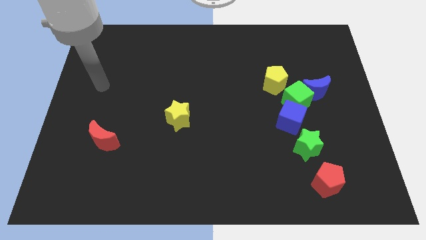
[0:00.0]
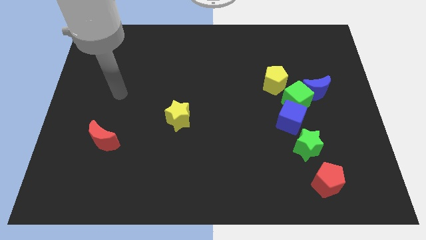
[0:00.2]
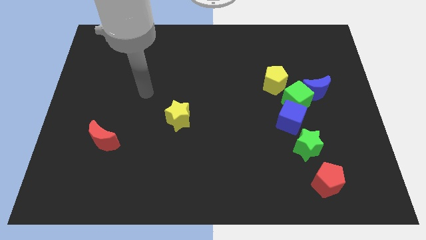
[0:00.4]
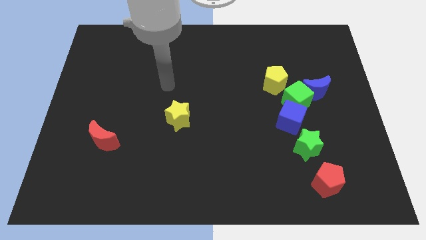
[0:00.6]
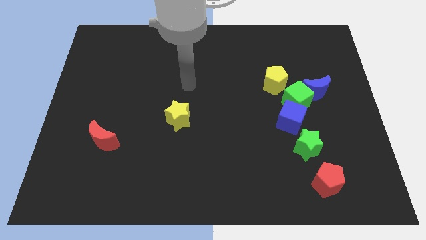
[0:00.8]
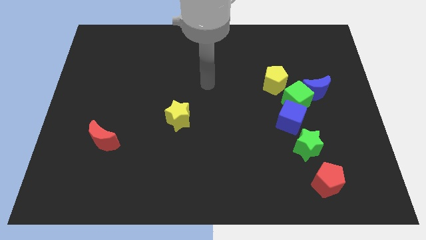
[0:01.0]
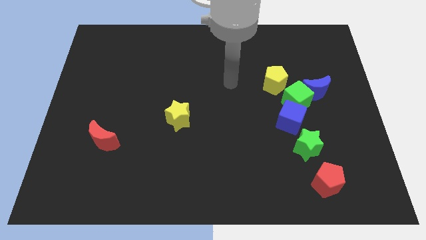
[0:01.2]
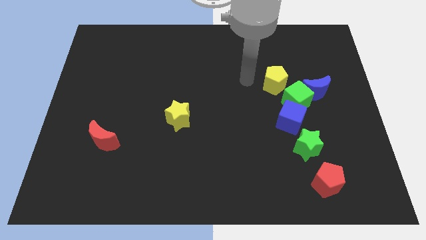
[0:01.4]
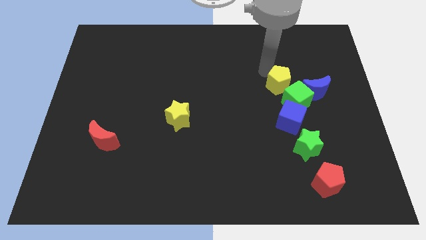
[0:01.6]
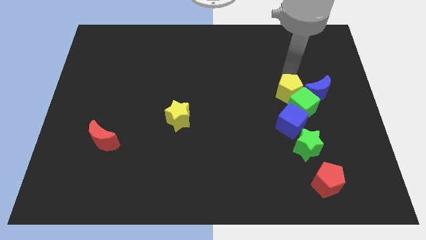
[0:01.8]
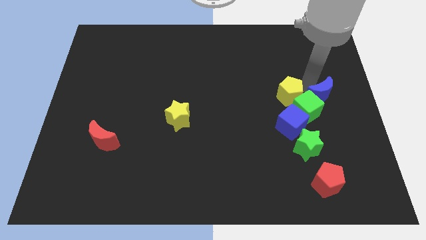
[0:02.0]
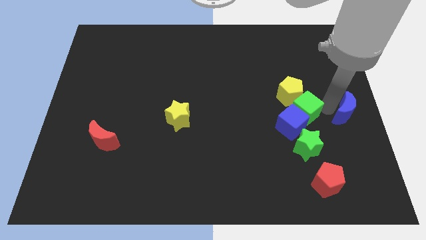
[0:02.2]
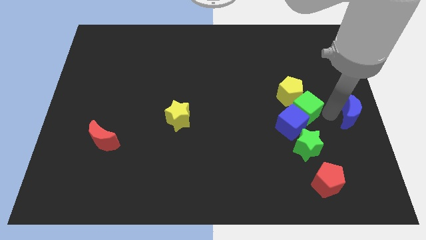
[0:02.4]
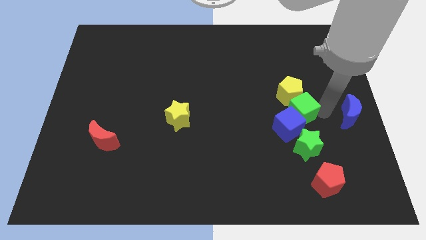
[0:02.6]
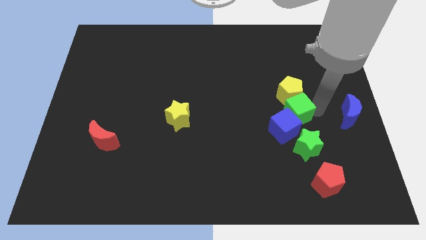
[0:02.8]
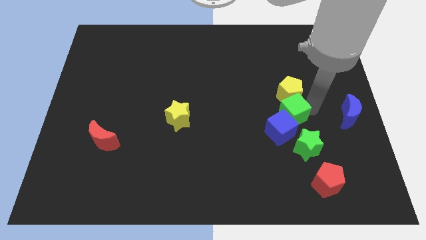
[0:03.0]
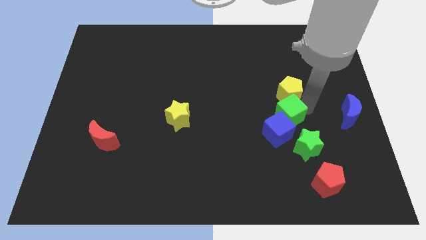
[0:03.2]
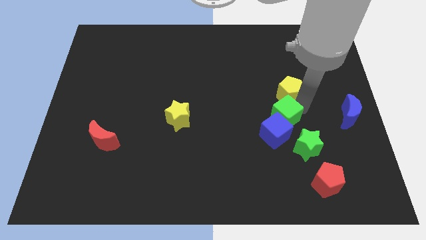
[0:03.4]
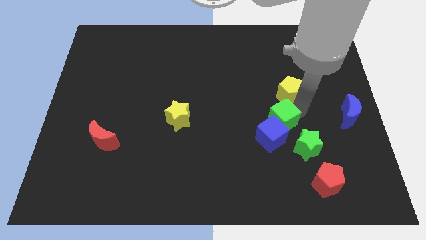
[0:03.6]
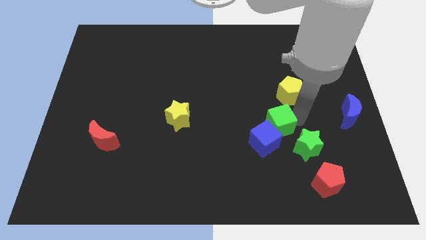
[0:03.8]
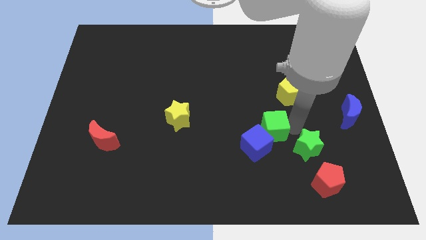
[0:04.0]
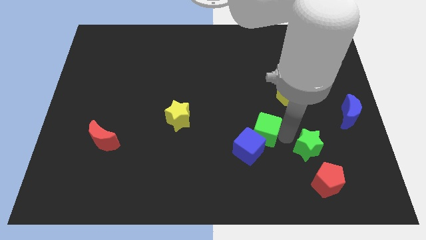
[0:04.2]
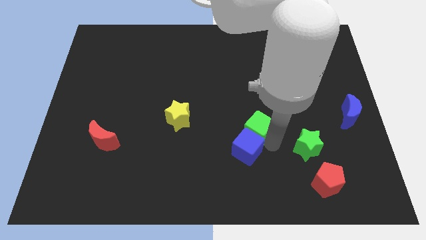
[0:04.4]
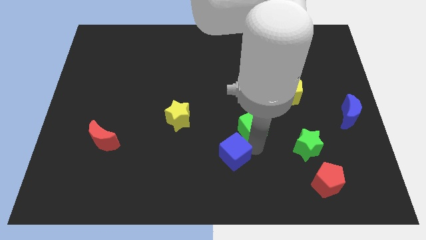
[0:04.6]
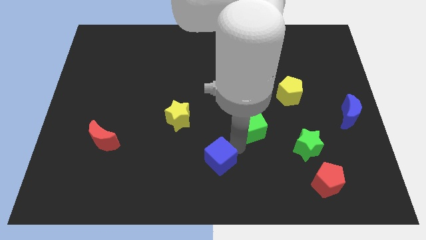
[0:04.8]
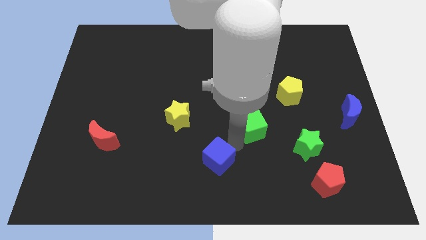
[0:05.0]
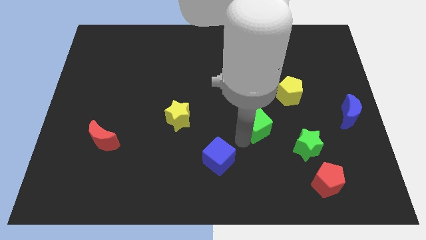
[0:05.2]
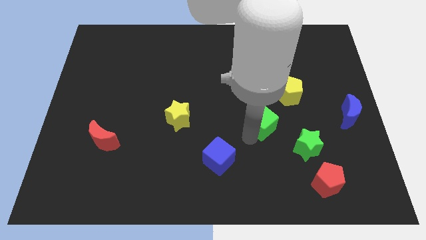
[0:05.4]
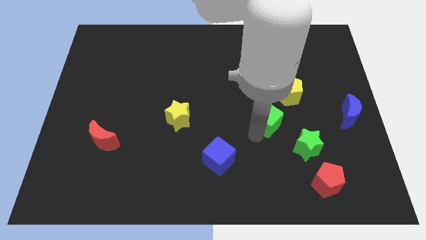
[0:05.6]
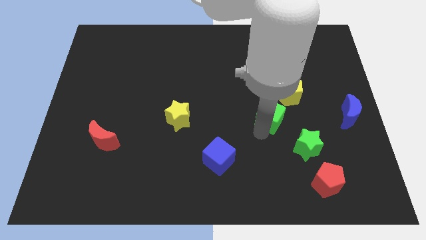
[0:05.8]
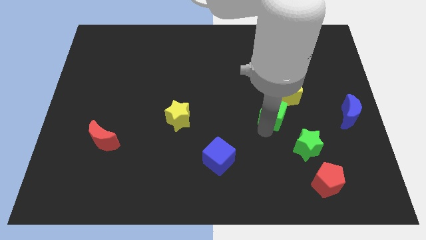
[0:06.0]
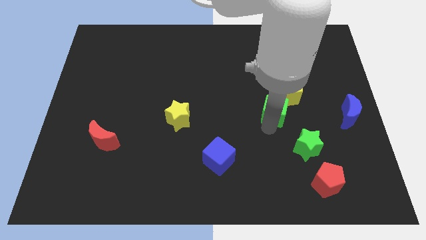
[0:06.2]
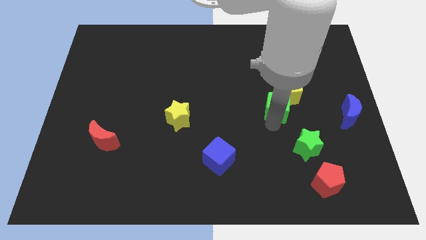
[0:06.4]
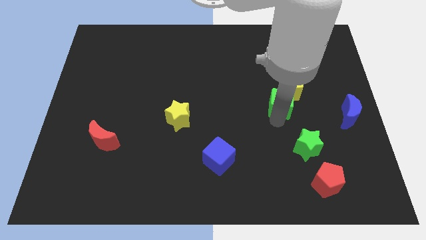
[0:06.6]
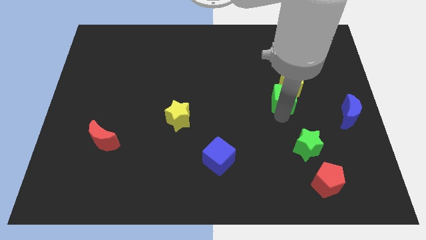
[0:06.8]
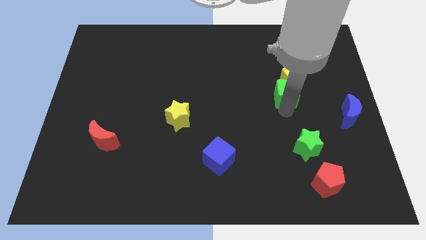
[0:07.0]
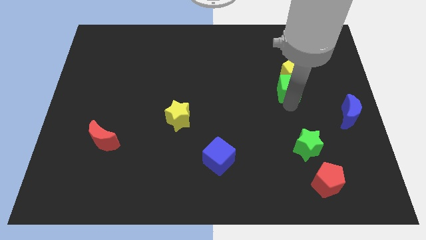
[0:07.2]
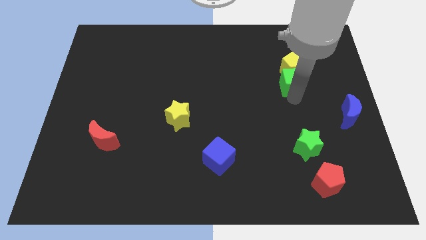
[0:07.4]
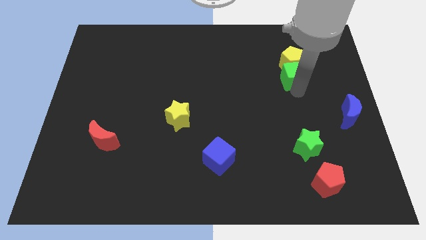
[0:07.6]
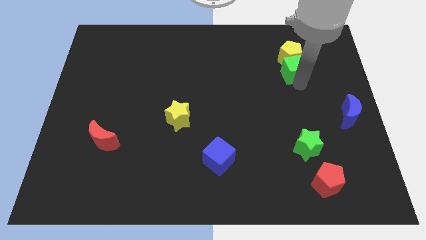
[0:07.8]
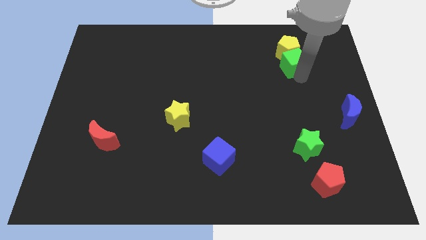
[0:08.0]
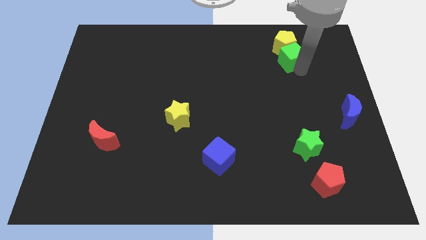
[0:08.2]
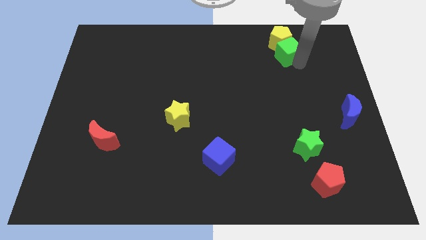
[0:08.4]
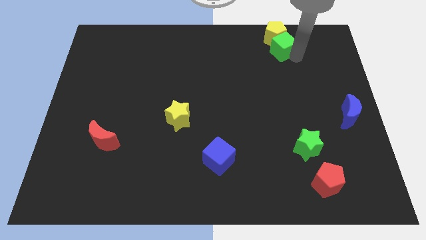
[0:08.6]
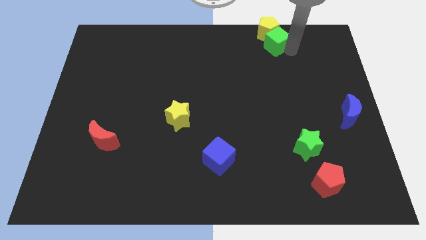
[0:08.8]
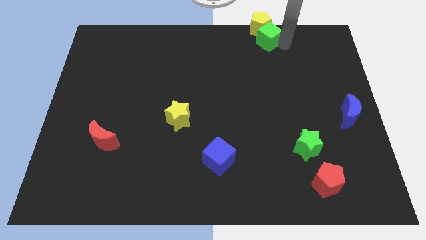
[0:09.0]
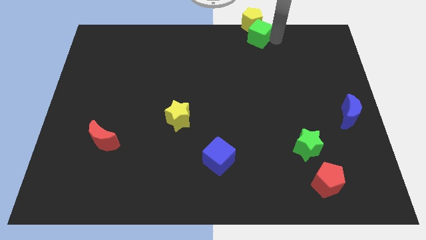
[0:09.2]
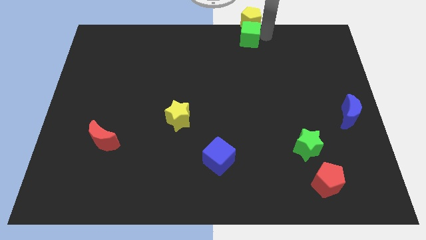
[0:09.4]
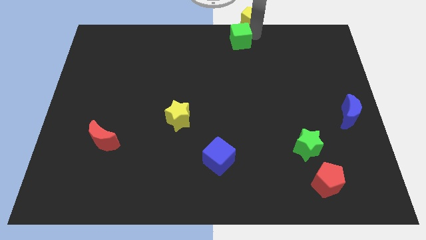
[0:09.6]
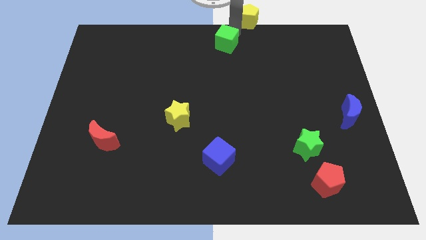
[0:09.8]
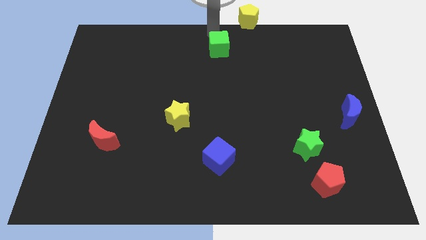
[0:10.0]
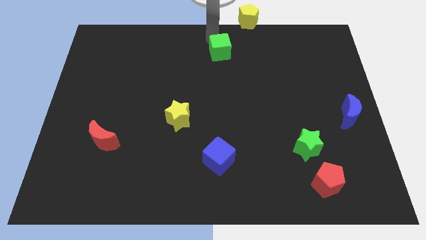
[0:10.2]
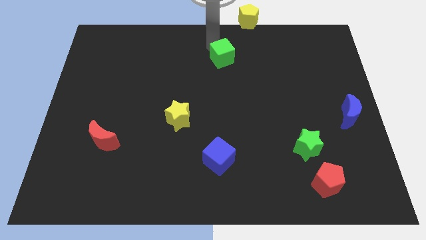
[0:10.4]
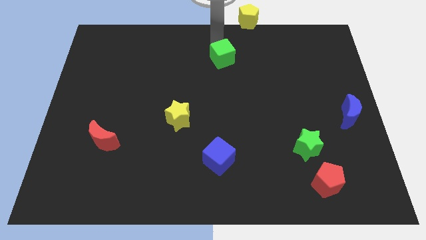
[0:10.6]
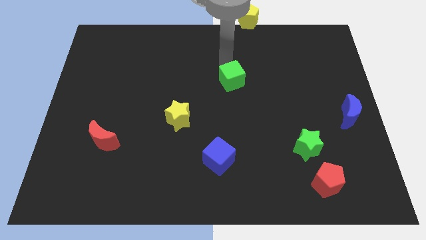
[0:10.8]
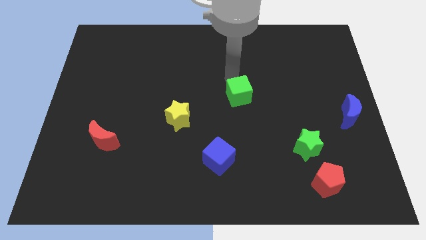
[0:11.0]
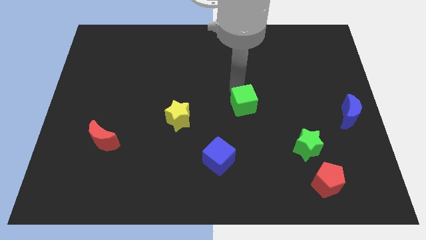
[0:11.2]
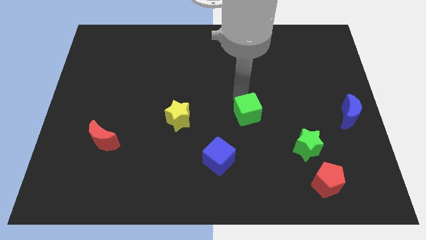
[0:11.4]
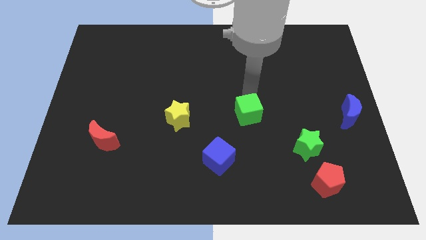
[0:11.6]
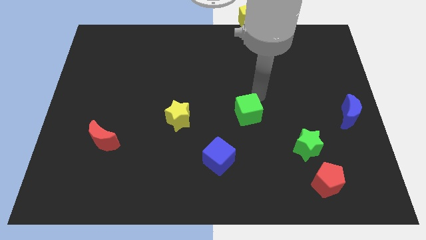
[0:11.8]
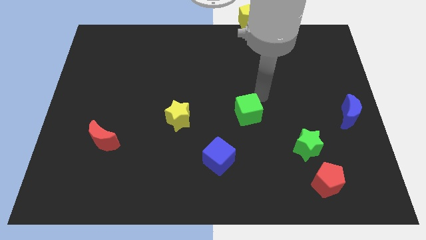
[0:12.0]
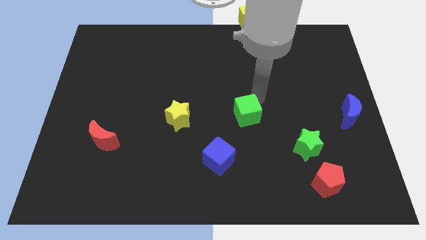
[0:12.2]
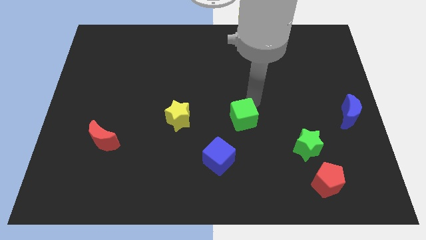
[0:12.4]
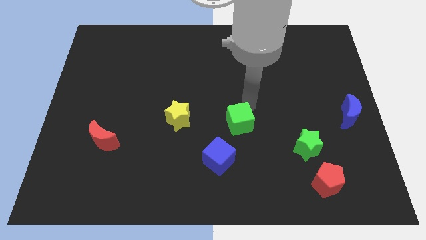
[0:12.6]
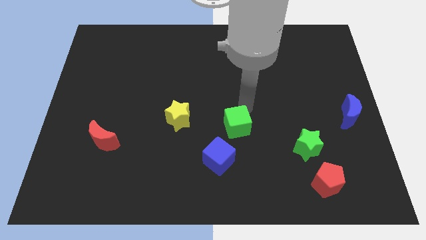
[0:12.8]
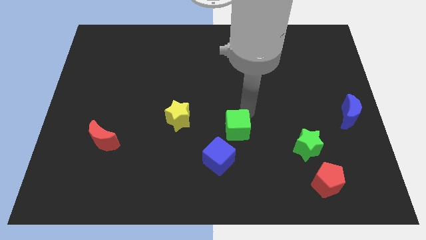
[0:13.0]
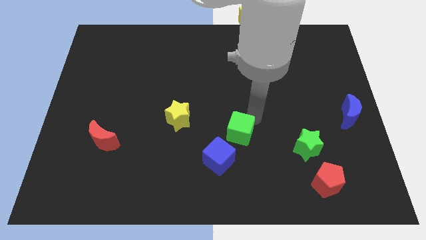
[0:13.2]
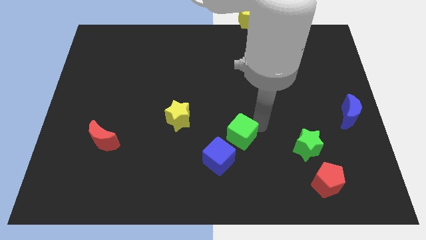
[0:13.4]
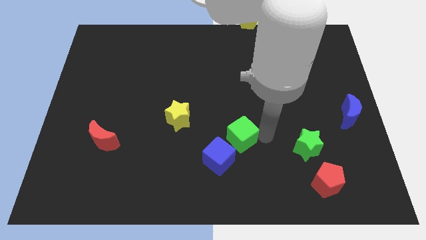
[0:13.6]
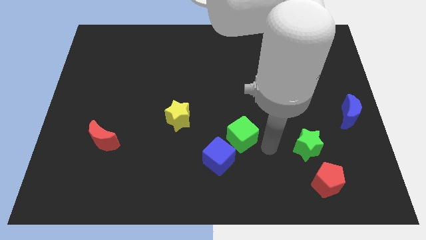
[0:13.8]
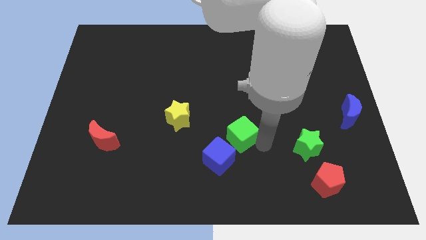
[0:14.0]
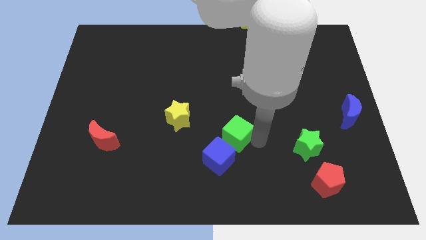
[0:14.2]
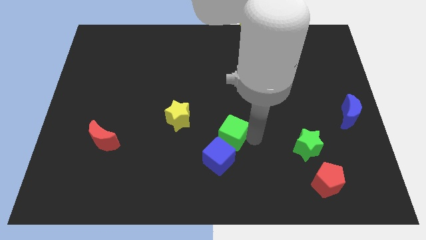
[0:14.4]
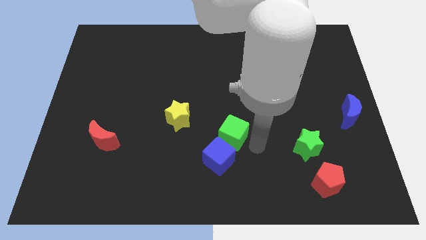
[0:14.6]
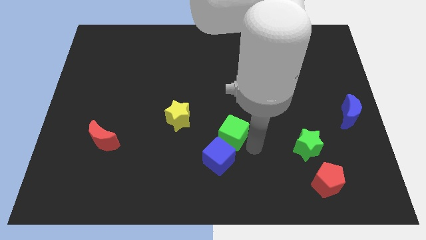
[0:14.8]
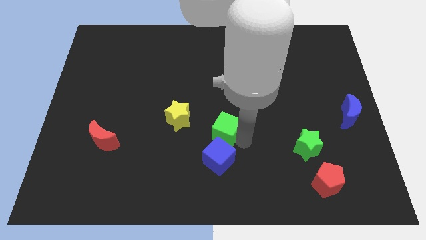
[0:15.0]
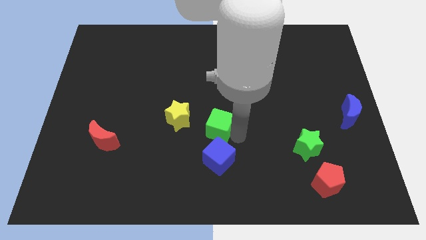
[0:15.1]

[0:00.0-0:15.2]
push the green cube diagonally down and to the right of the yellow star

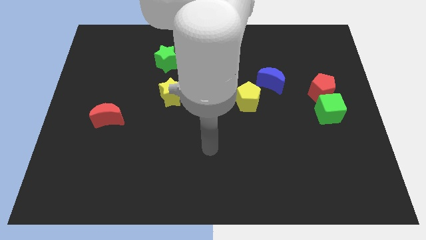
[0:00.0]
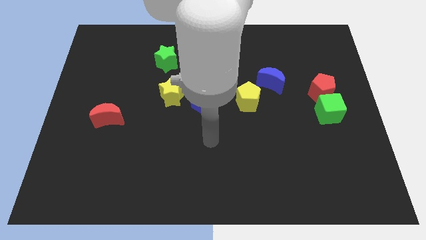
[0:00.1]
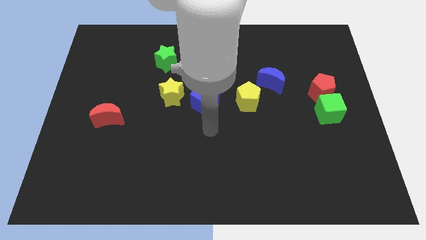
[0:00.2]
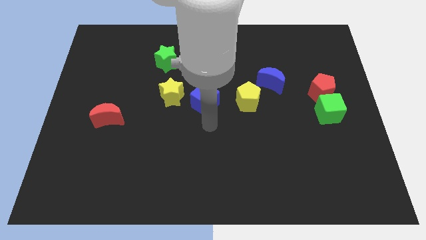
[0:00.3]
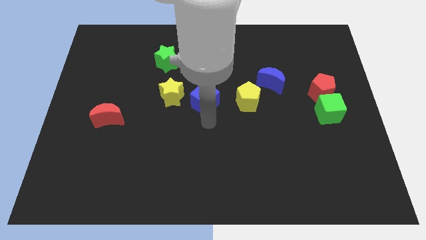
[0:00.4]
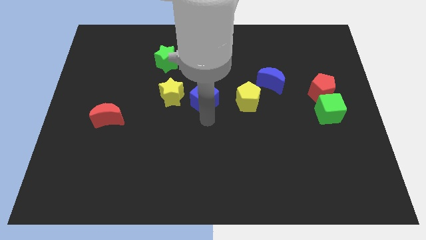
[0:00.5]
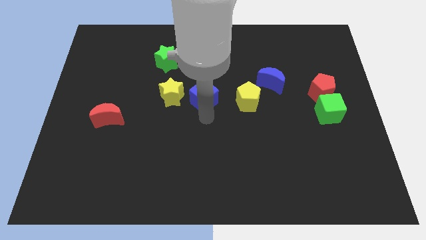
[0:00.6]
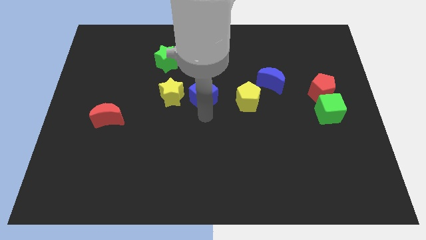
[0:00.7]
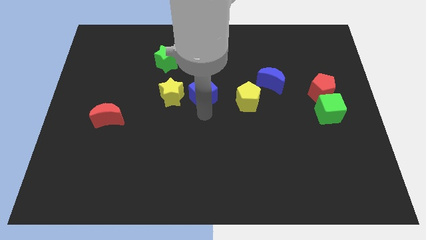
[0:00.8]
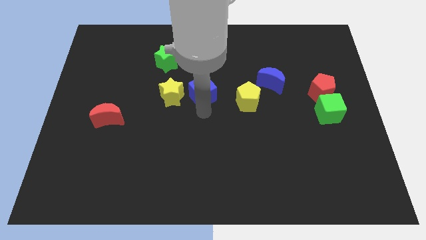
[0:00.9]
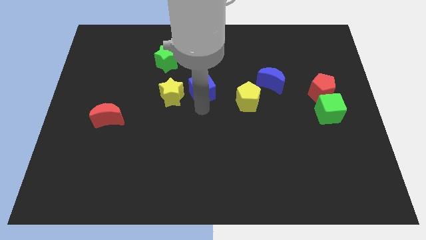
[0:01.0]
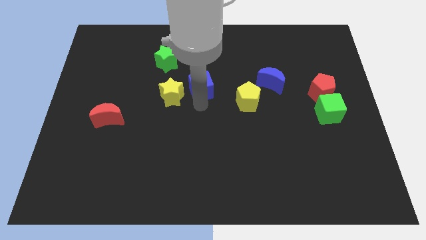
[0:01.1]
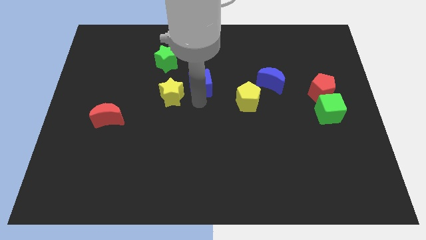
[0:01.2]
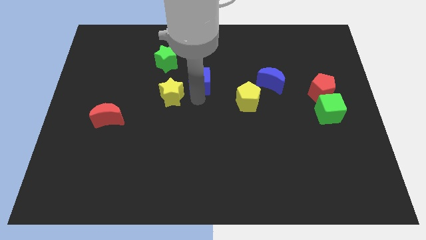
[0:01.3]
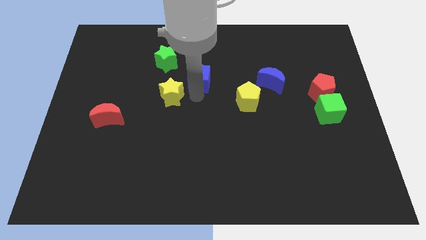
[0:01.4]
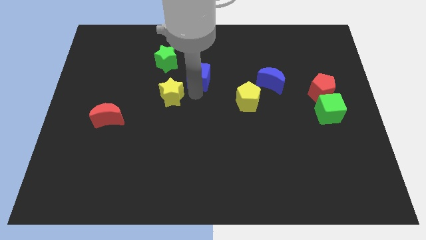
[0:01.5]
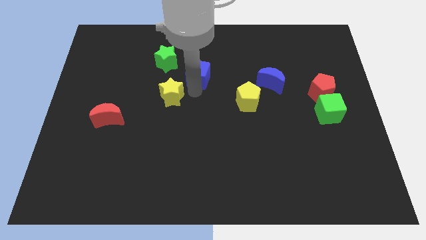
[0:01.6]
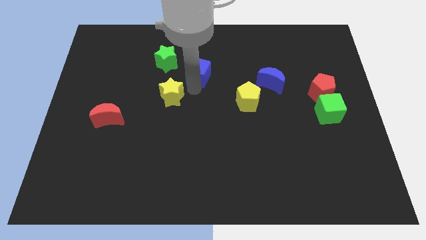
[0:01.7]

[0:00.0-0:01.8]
slide the blue cube just right of the green star
